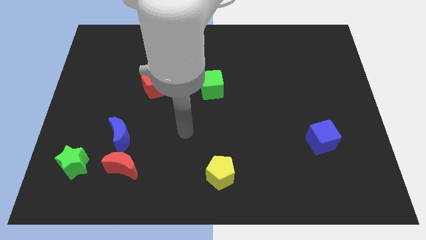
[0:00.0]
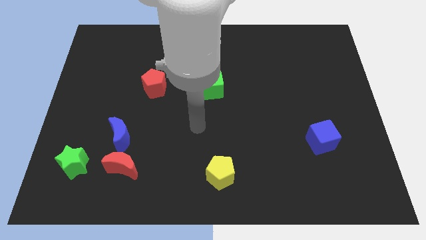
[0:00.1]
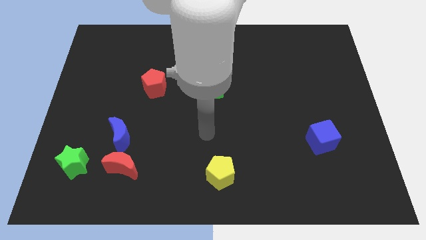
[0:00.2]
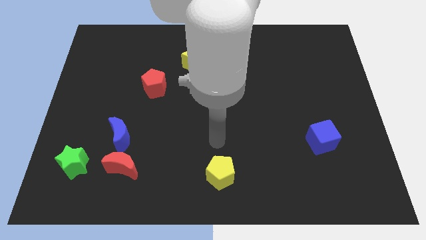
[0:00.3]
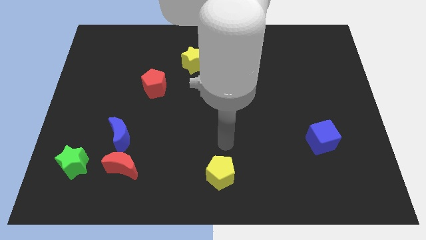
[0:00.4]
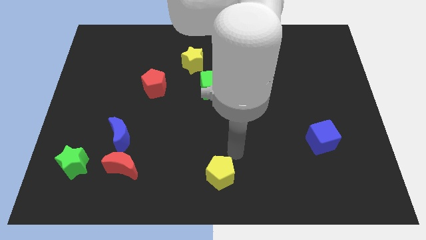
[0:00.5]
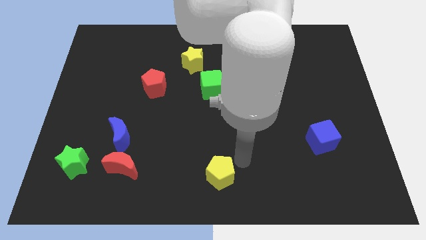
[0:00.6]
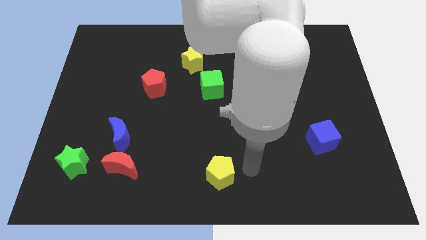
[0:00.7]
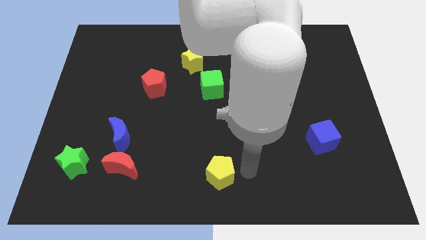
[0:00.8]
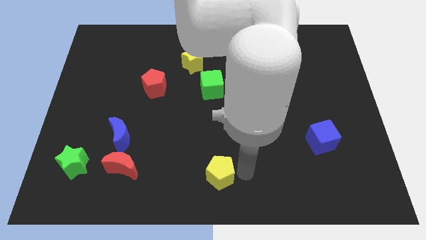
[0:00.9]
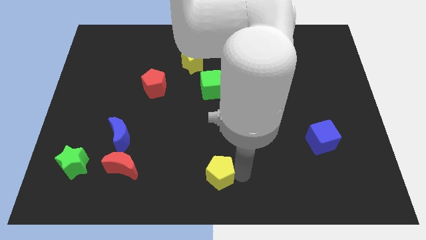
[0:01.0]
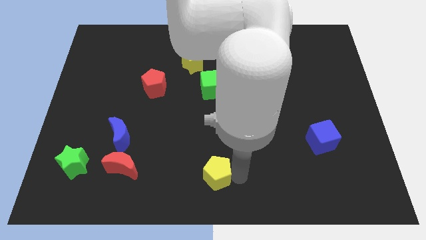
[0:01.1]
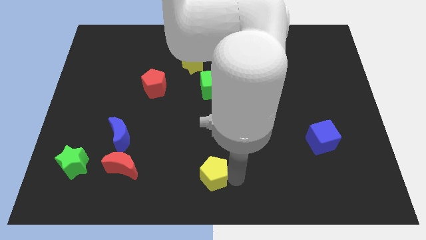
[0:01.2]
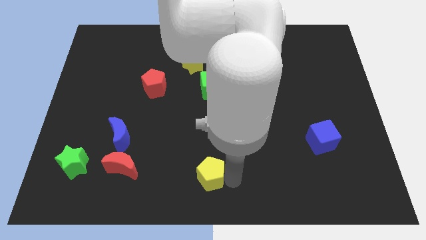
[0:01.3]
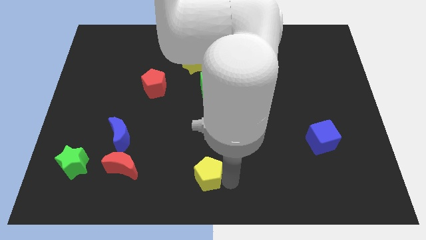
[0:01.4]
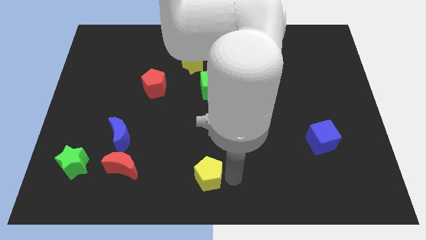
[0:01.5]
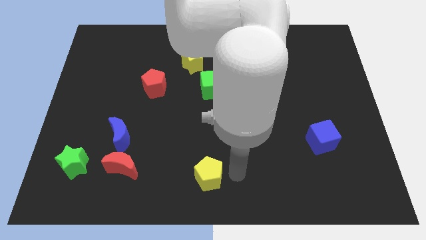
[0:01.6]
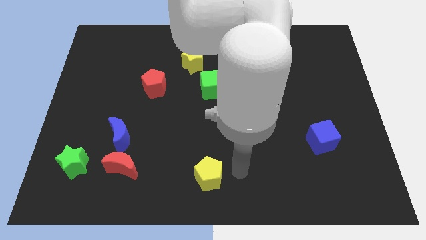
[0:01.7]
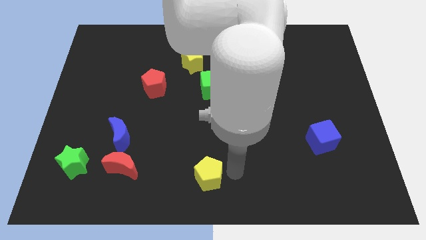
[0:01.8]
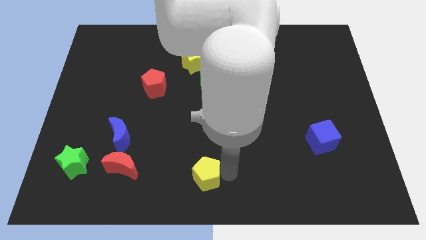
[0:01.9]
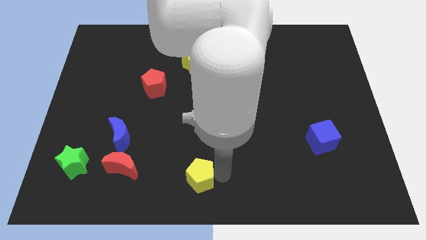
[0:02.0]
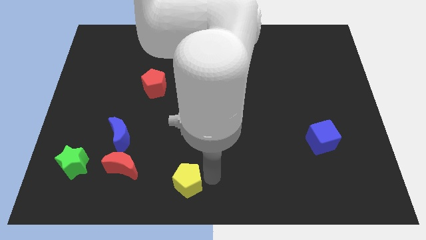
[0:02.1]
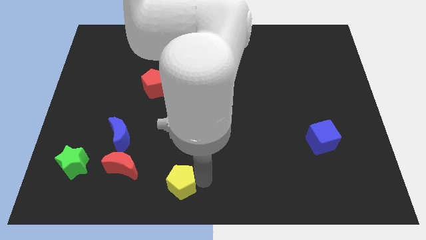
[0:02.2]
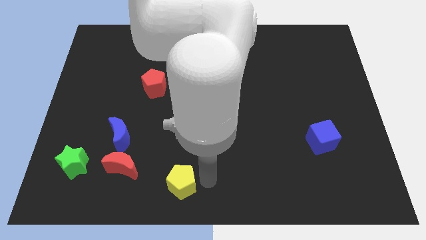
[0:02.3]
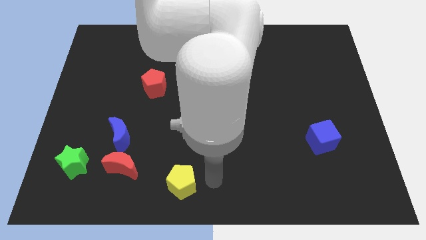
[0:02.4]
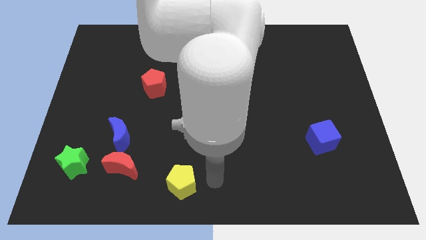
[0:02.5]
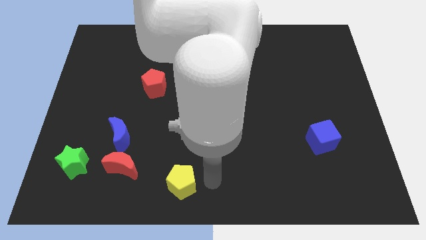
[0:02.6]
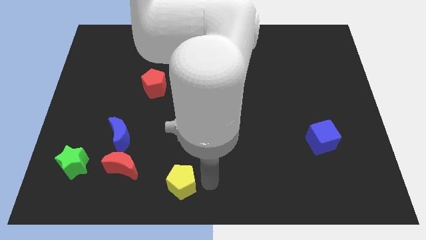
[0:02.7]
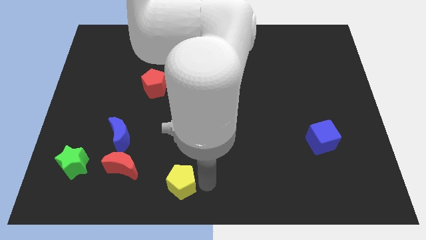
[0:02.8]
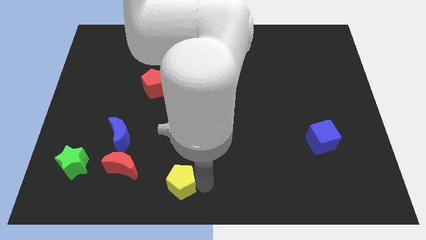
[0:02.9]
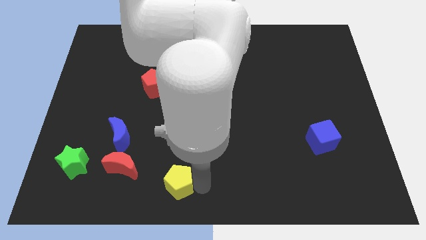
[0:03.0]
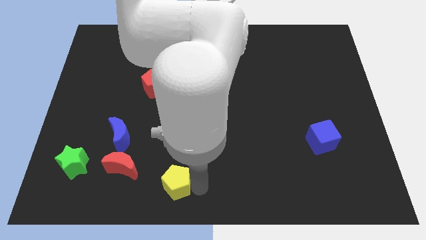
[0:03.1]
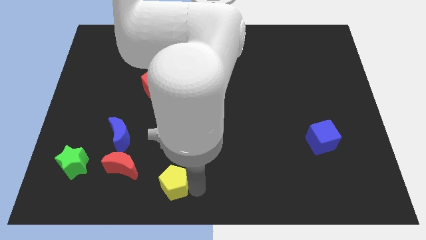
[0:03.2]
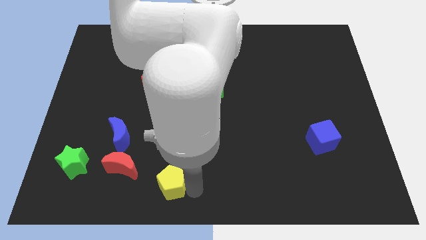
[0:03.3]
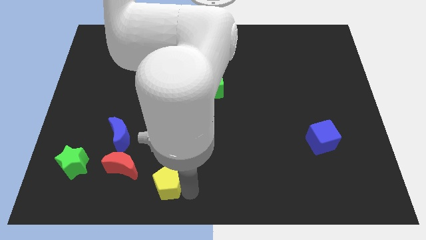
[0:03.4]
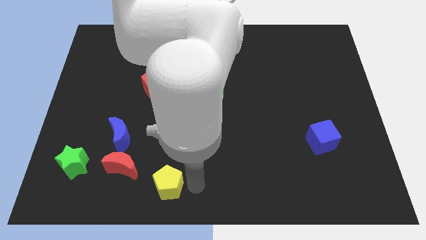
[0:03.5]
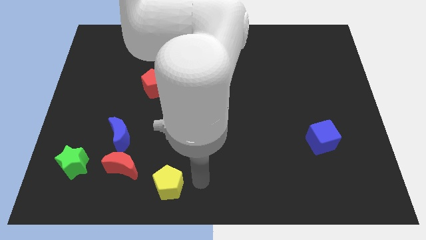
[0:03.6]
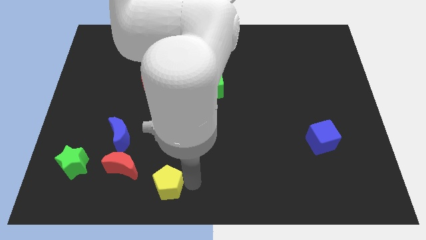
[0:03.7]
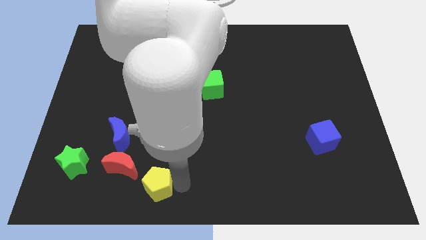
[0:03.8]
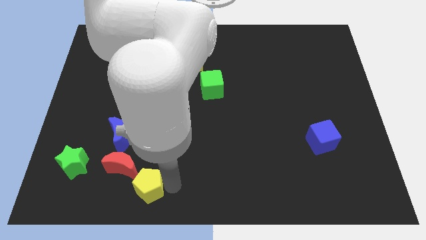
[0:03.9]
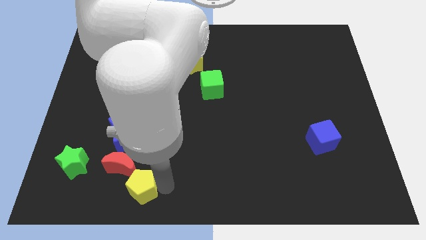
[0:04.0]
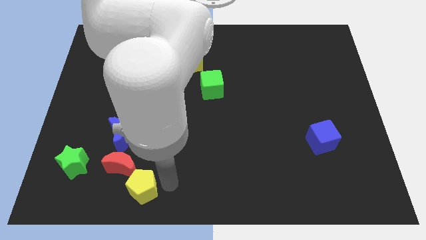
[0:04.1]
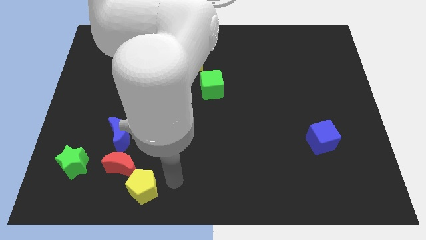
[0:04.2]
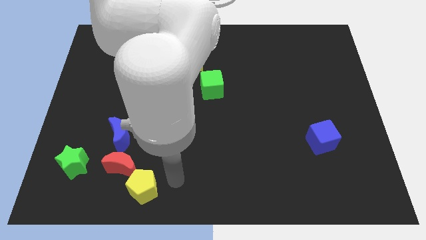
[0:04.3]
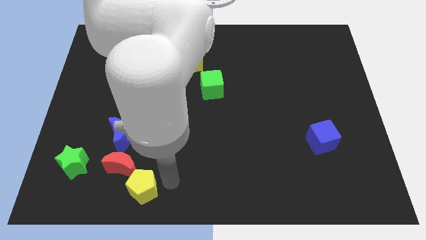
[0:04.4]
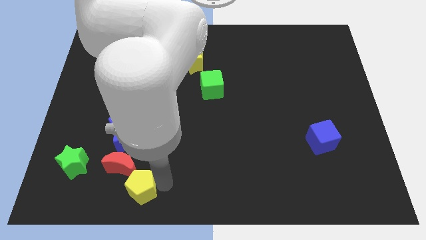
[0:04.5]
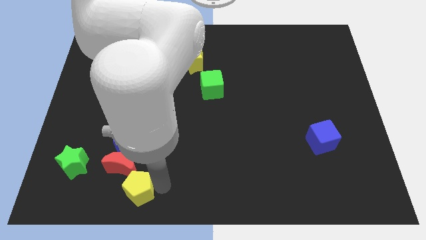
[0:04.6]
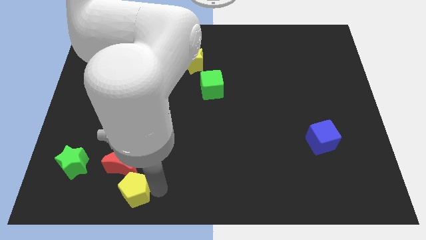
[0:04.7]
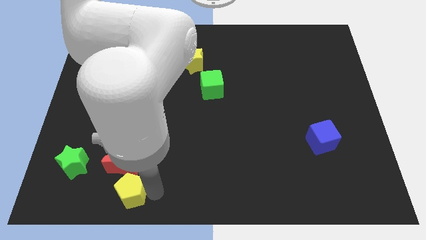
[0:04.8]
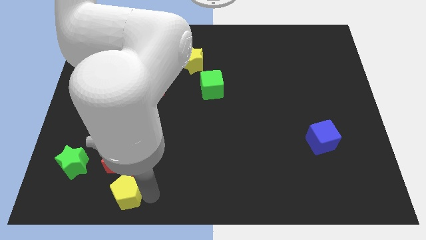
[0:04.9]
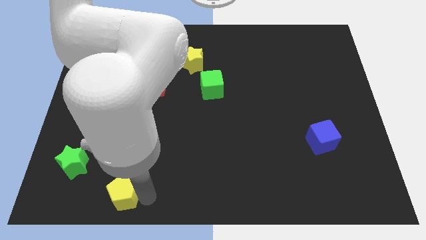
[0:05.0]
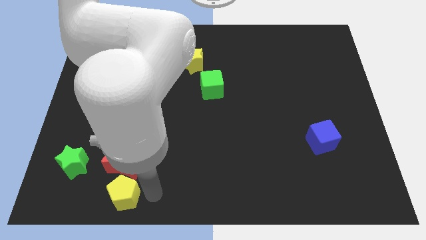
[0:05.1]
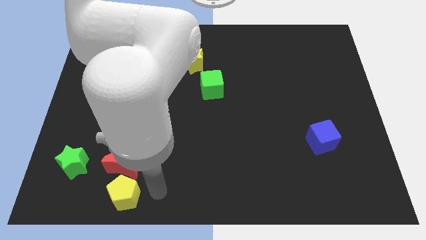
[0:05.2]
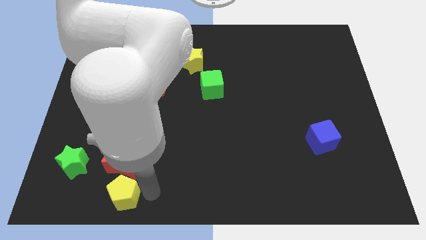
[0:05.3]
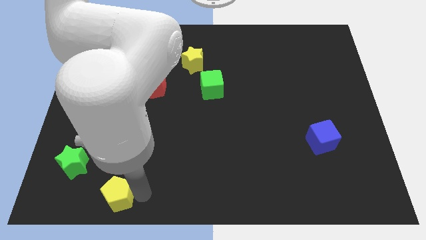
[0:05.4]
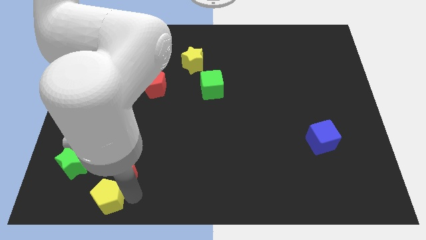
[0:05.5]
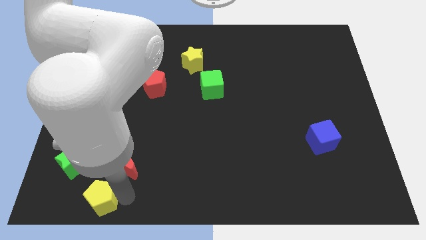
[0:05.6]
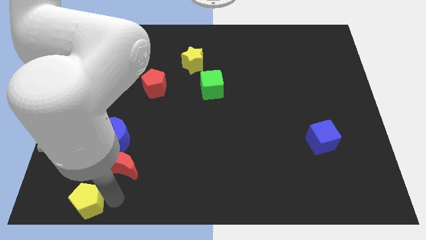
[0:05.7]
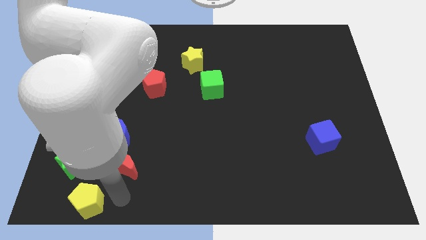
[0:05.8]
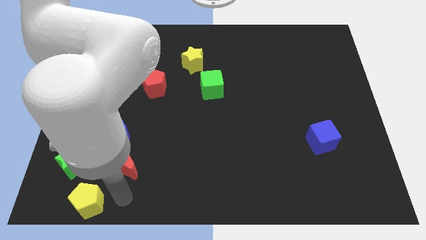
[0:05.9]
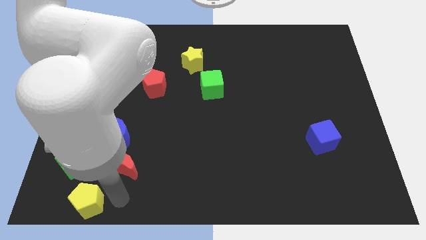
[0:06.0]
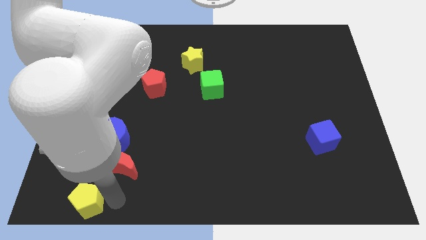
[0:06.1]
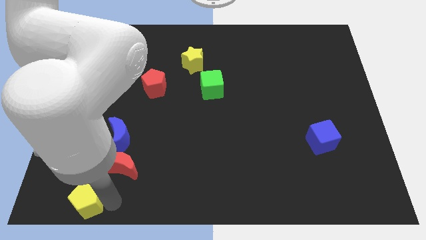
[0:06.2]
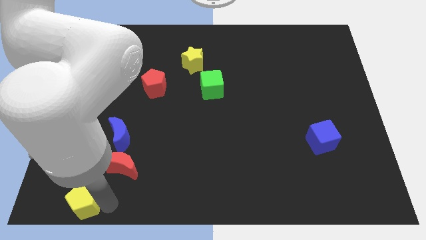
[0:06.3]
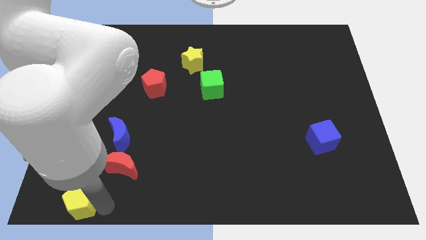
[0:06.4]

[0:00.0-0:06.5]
move the yellow pentagon to the lower left corner

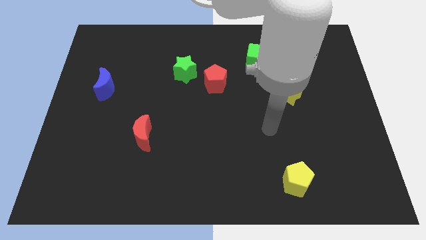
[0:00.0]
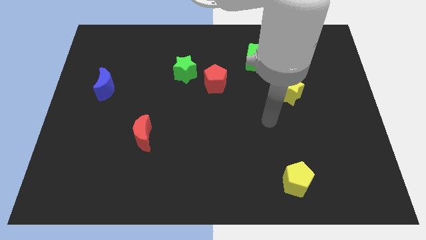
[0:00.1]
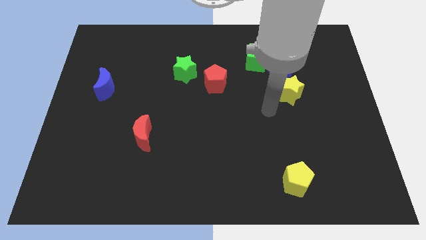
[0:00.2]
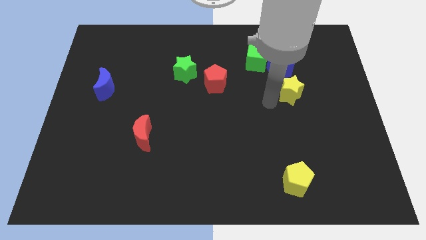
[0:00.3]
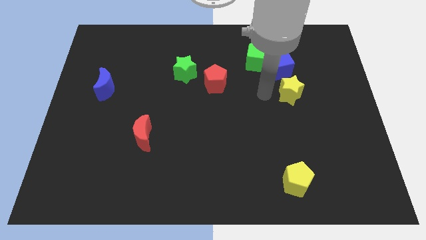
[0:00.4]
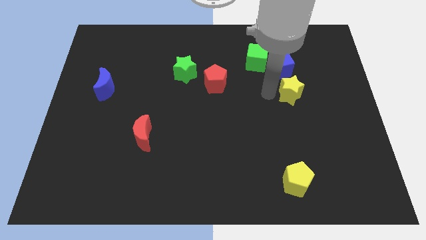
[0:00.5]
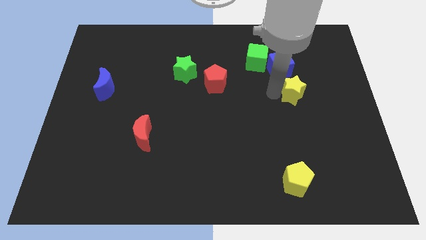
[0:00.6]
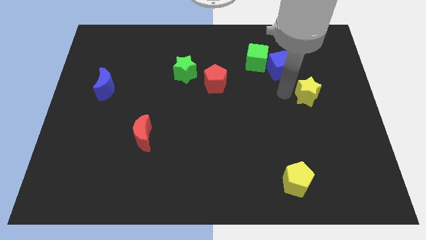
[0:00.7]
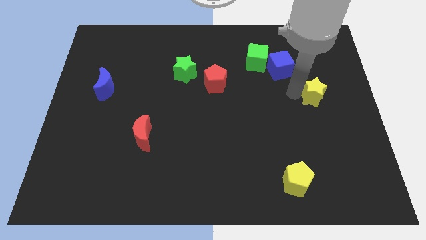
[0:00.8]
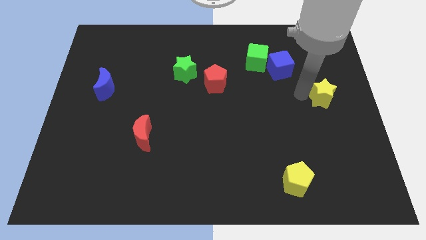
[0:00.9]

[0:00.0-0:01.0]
move the yellow star to the right side
